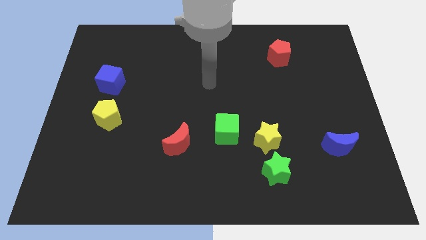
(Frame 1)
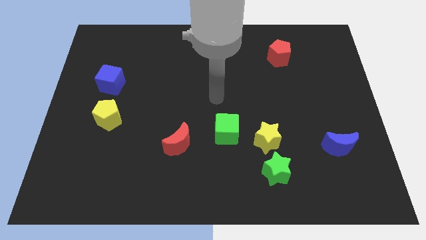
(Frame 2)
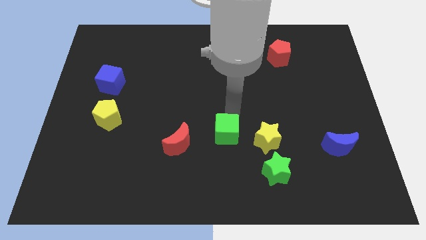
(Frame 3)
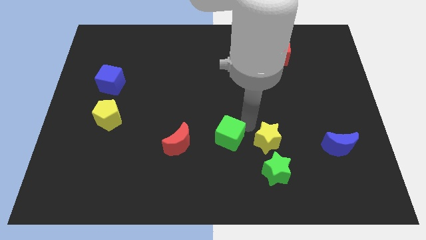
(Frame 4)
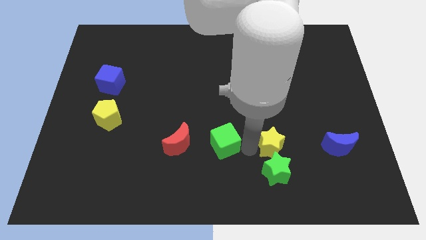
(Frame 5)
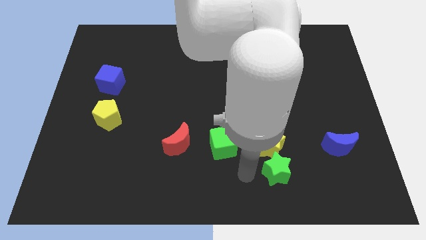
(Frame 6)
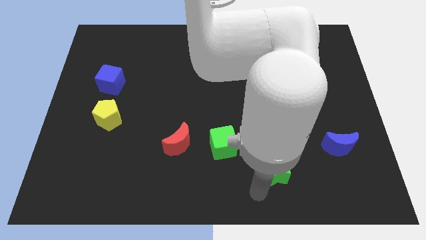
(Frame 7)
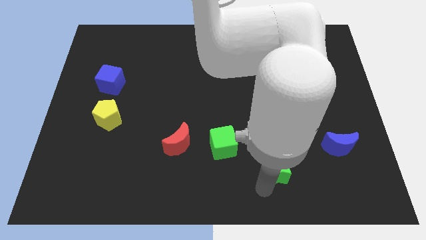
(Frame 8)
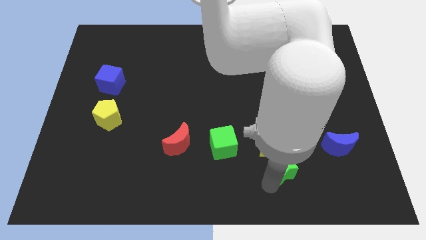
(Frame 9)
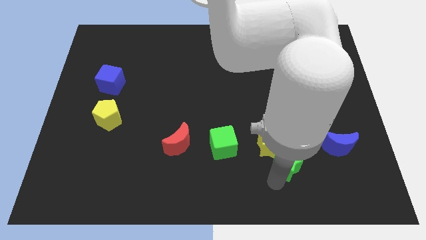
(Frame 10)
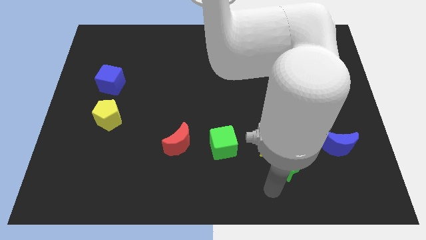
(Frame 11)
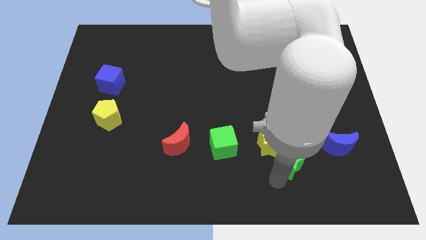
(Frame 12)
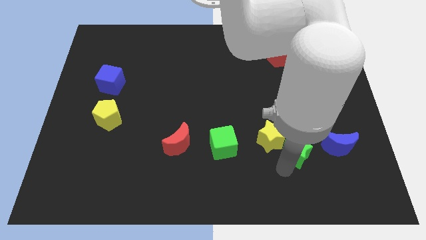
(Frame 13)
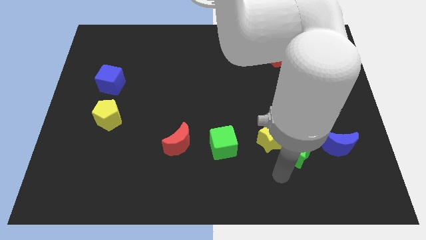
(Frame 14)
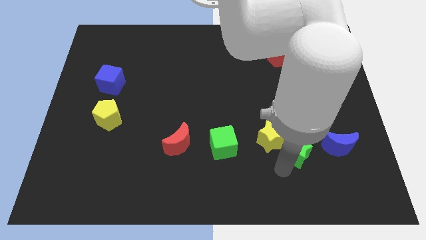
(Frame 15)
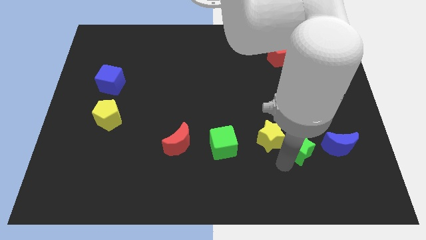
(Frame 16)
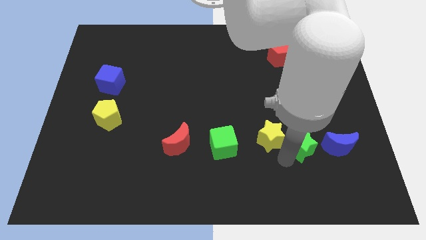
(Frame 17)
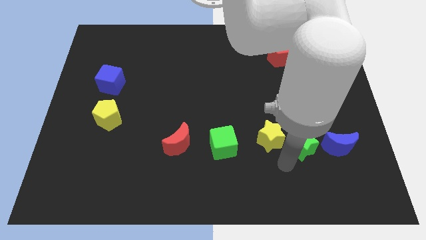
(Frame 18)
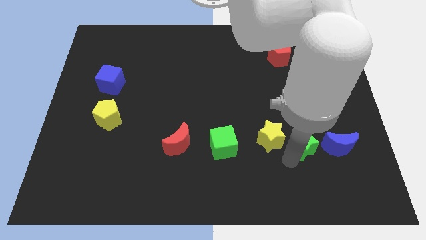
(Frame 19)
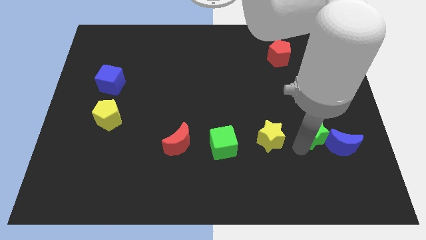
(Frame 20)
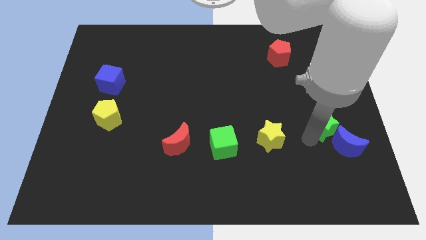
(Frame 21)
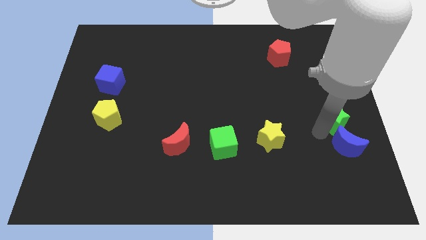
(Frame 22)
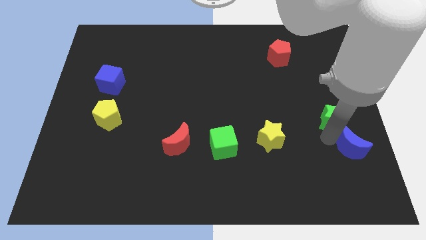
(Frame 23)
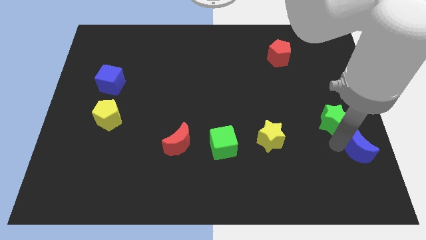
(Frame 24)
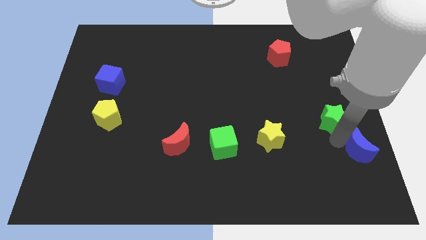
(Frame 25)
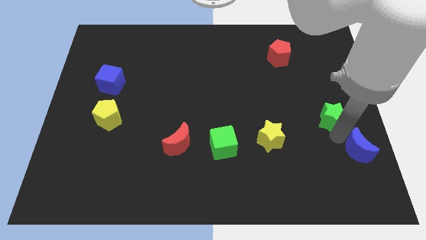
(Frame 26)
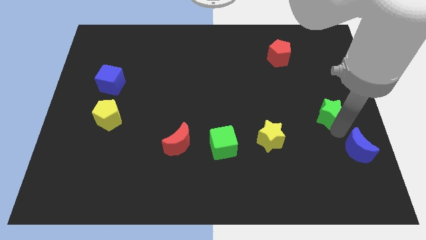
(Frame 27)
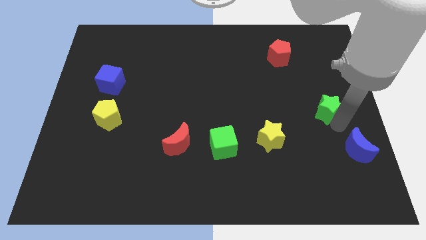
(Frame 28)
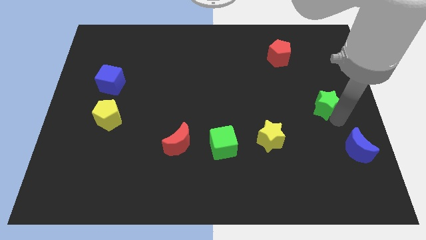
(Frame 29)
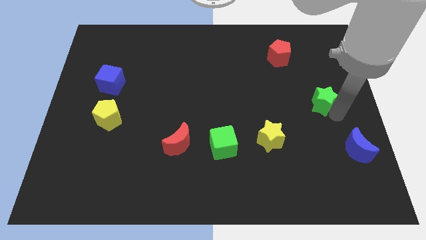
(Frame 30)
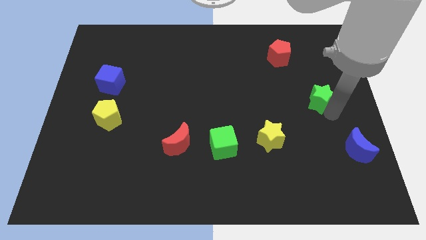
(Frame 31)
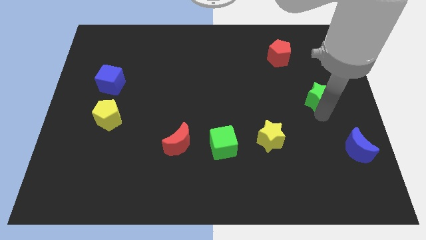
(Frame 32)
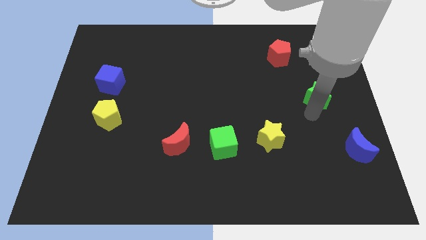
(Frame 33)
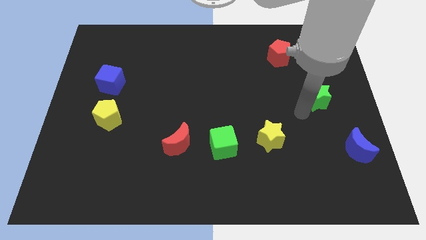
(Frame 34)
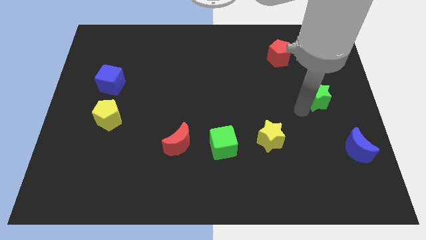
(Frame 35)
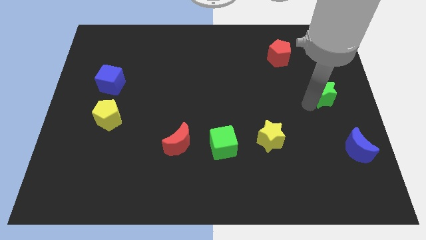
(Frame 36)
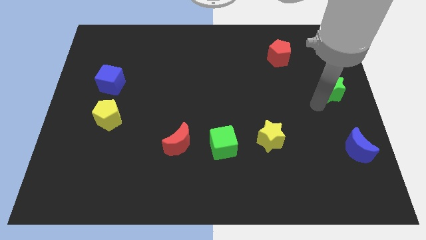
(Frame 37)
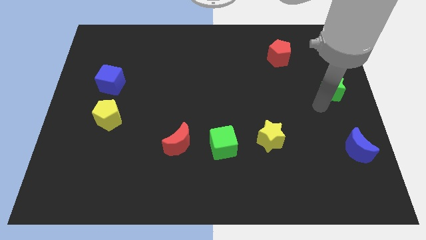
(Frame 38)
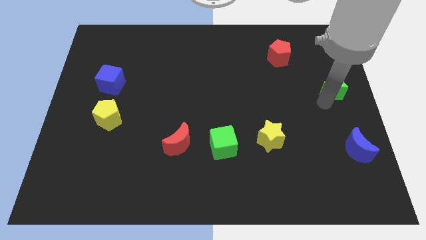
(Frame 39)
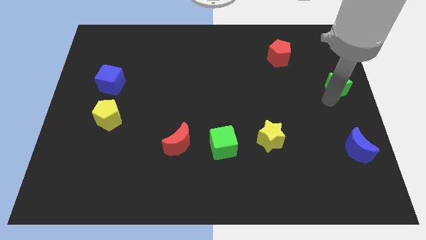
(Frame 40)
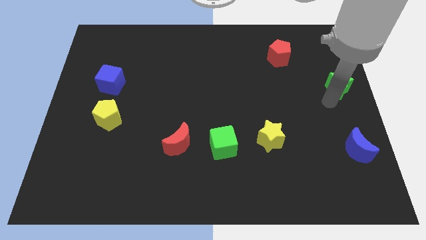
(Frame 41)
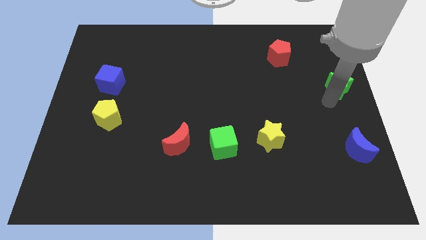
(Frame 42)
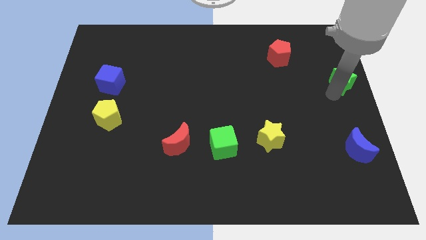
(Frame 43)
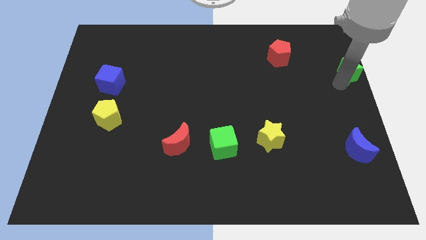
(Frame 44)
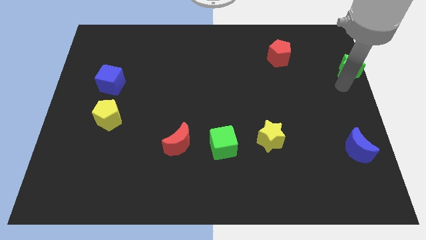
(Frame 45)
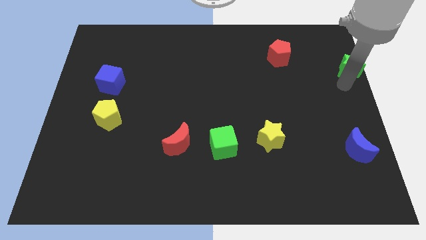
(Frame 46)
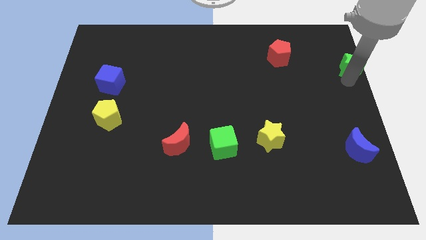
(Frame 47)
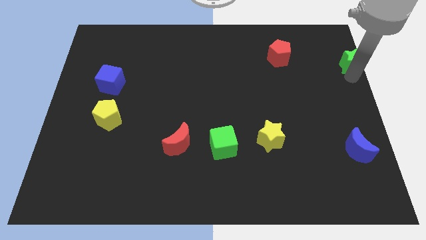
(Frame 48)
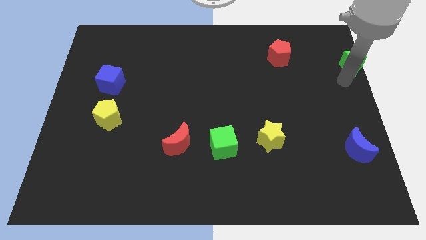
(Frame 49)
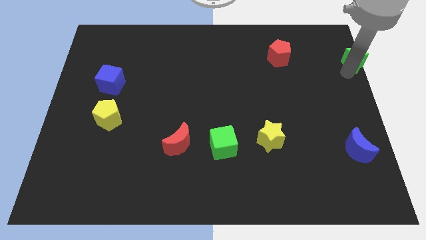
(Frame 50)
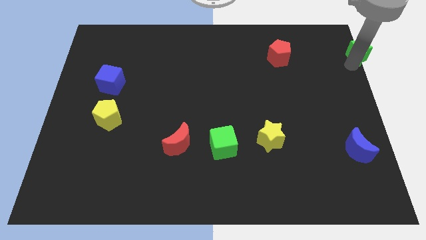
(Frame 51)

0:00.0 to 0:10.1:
move the green star to the top right of the board

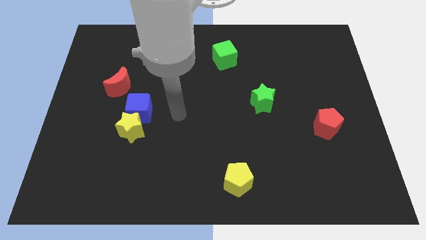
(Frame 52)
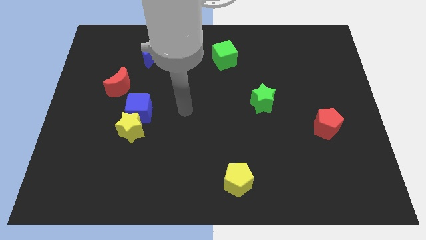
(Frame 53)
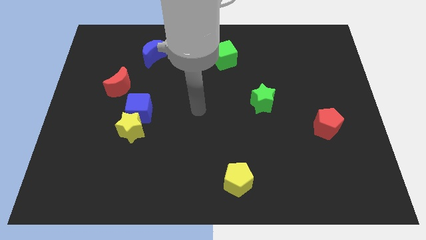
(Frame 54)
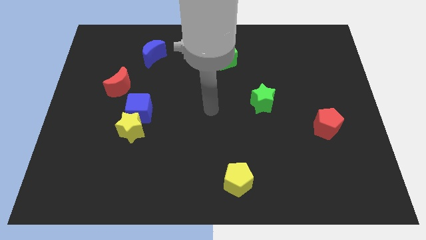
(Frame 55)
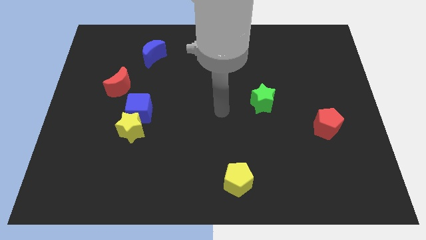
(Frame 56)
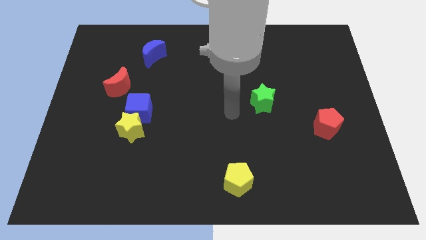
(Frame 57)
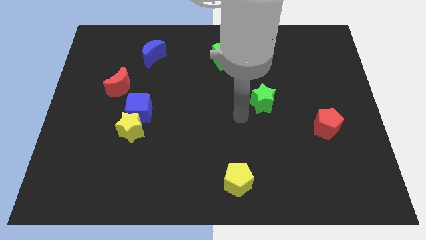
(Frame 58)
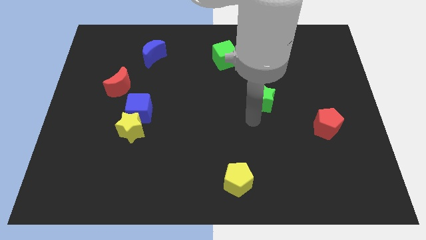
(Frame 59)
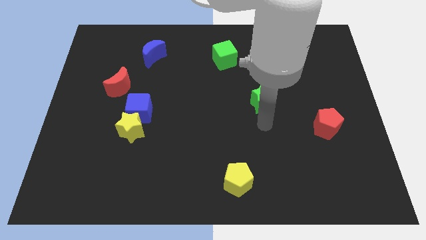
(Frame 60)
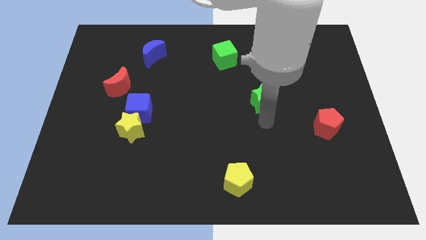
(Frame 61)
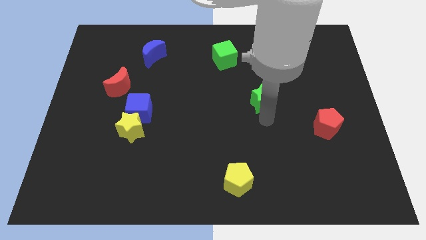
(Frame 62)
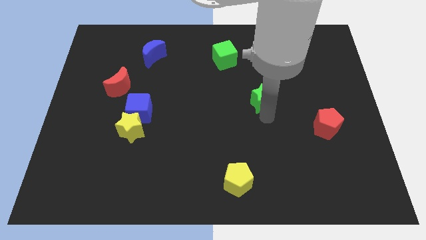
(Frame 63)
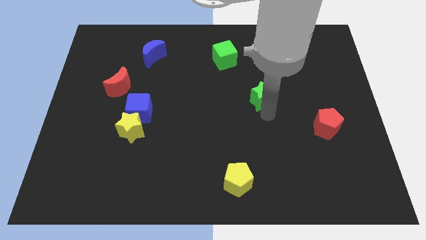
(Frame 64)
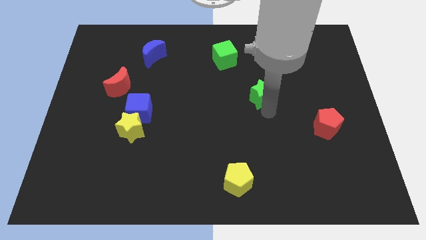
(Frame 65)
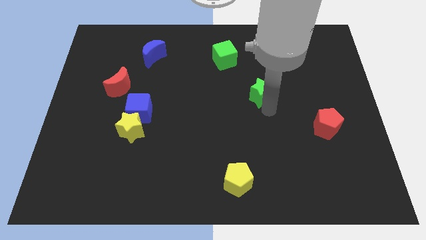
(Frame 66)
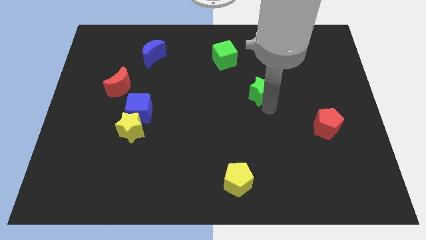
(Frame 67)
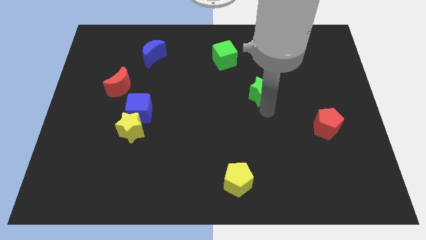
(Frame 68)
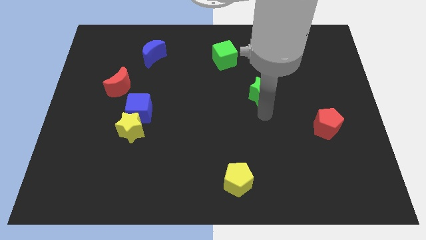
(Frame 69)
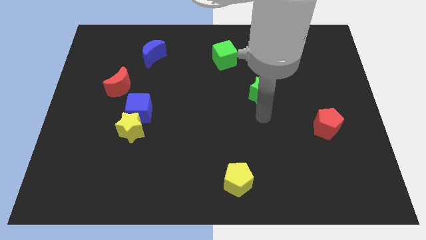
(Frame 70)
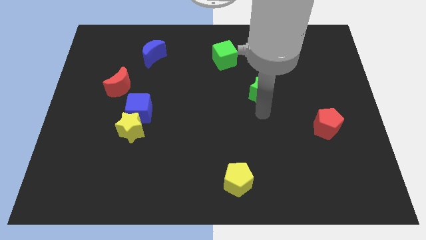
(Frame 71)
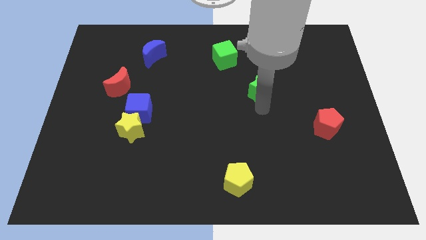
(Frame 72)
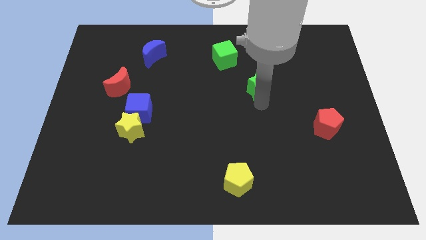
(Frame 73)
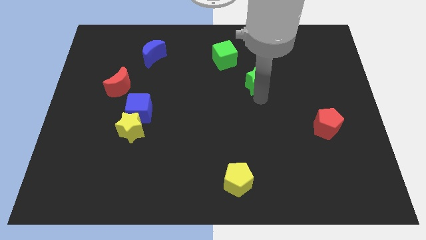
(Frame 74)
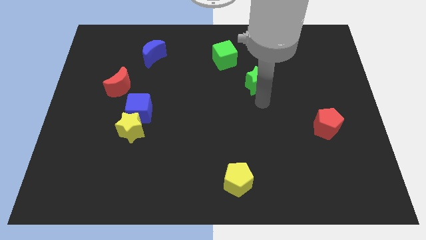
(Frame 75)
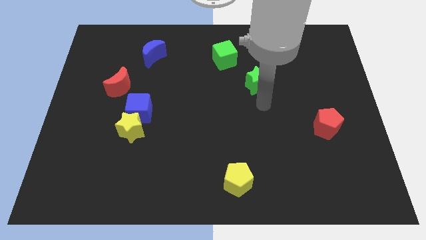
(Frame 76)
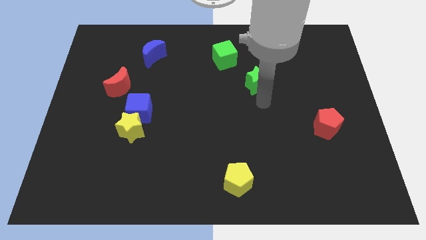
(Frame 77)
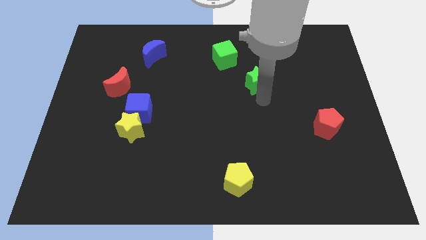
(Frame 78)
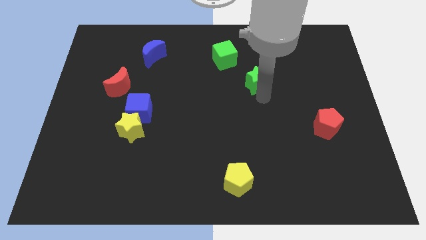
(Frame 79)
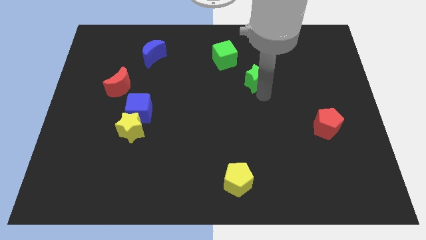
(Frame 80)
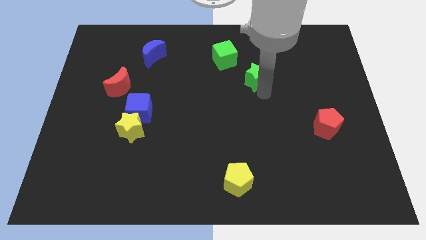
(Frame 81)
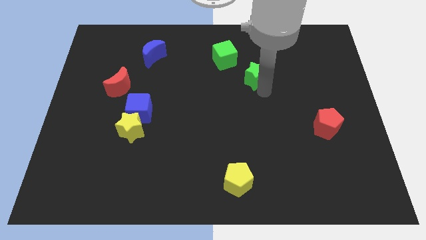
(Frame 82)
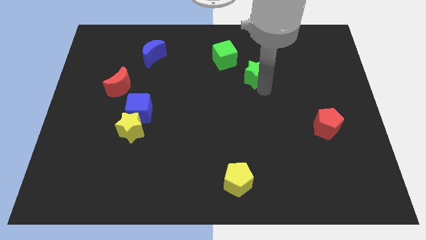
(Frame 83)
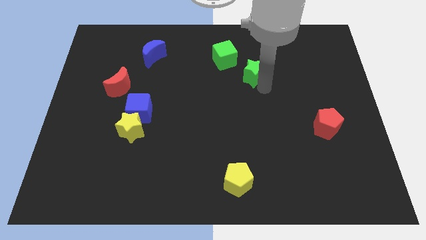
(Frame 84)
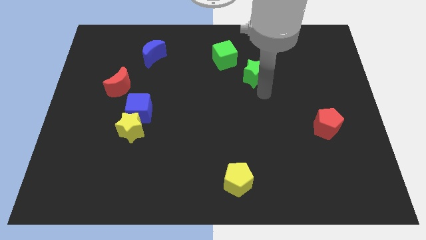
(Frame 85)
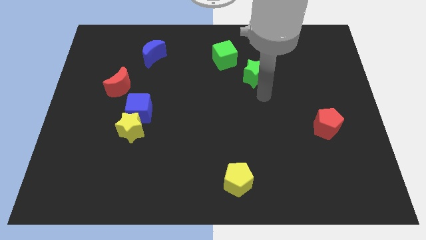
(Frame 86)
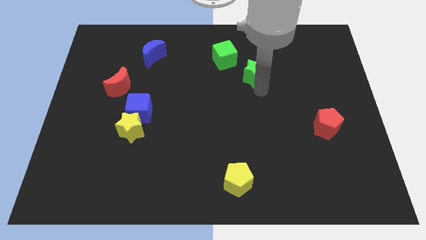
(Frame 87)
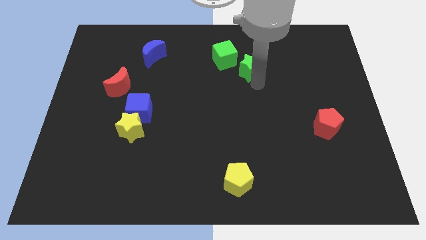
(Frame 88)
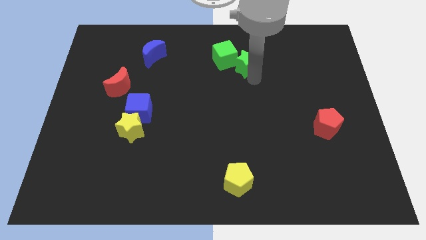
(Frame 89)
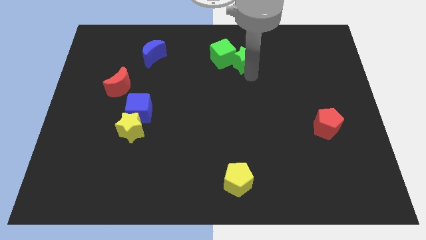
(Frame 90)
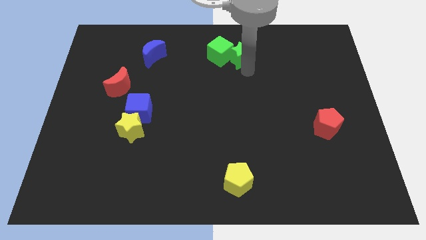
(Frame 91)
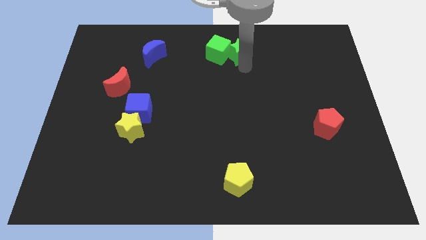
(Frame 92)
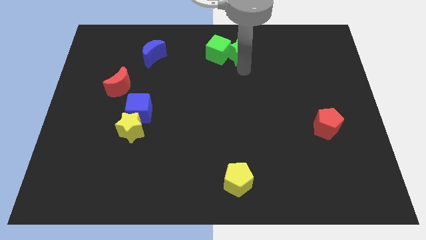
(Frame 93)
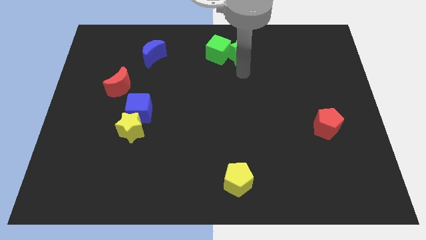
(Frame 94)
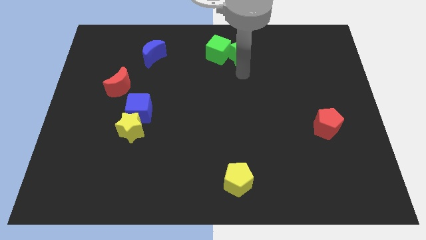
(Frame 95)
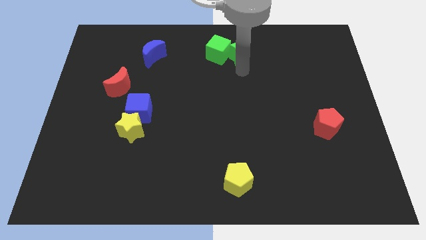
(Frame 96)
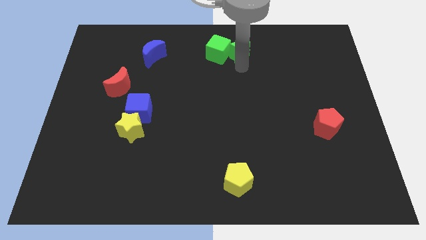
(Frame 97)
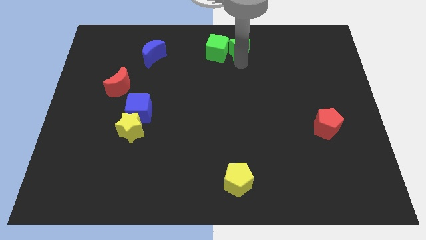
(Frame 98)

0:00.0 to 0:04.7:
slide the green star to the top side
